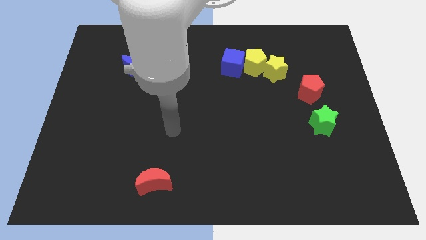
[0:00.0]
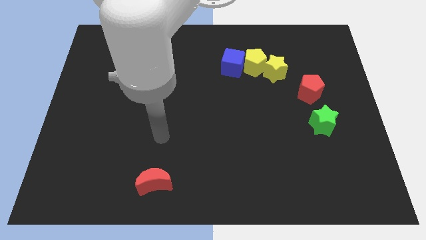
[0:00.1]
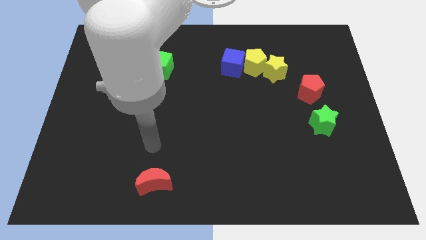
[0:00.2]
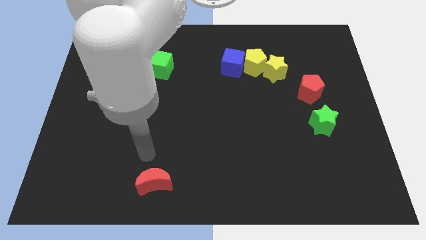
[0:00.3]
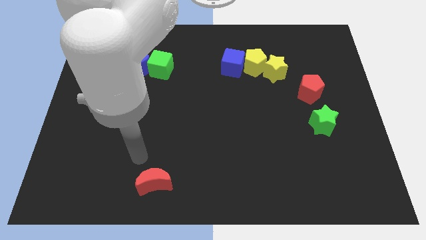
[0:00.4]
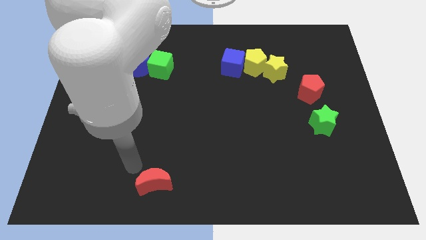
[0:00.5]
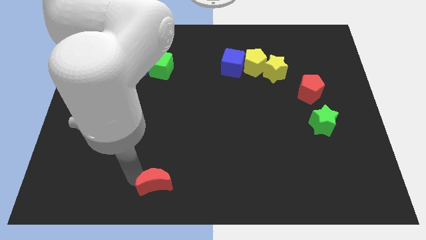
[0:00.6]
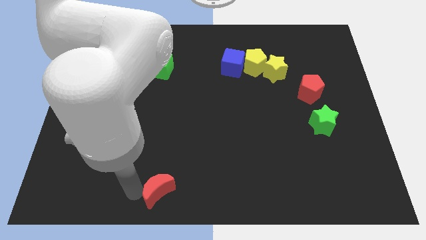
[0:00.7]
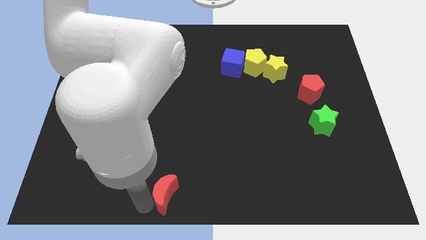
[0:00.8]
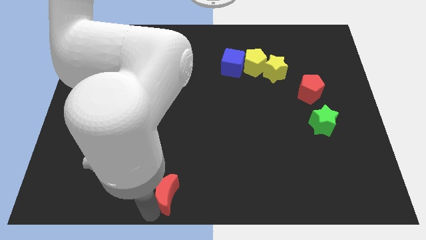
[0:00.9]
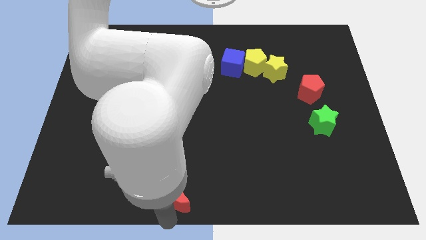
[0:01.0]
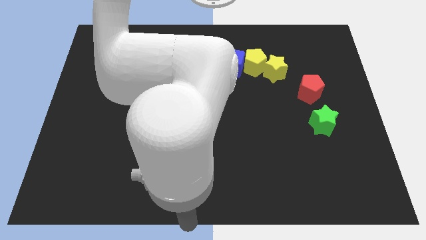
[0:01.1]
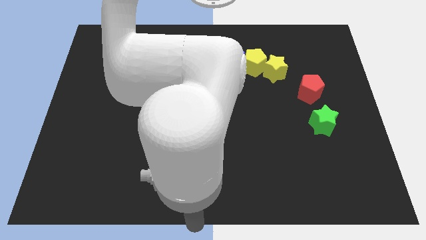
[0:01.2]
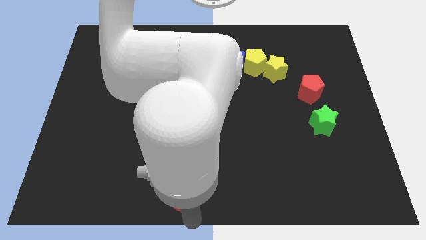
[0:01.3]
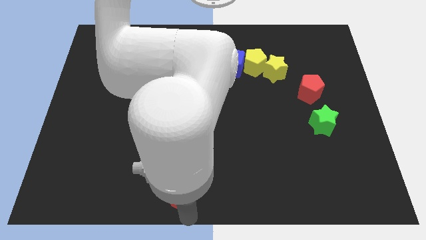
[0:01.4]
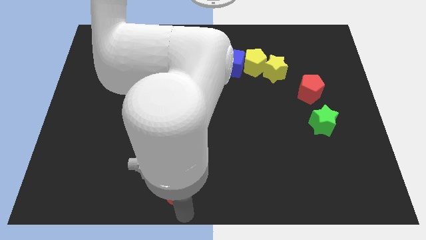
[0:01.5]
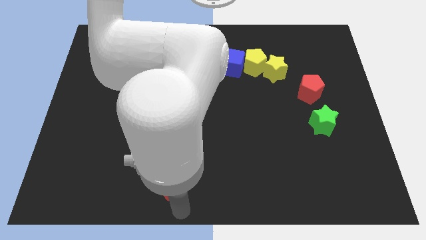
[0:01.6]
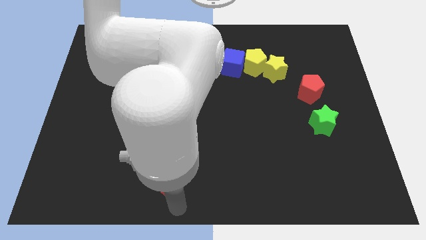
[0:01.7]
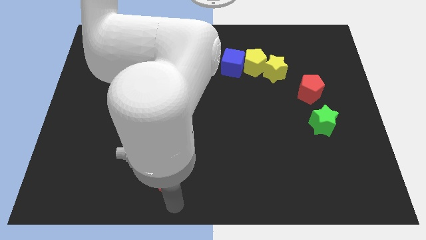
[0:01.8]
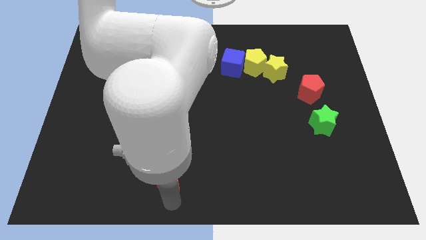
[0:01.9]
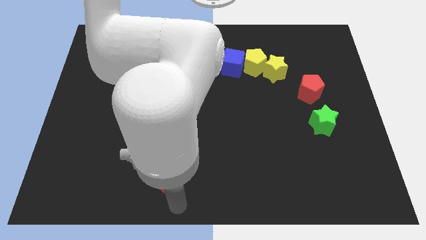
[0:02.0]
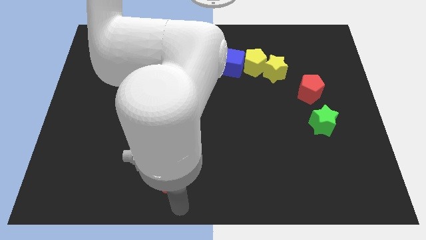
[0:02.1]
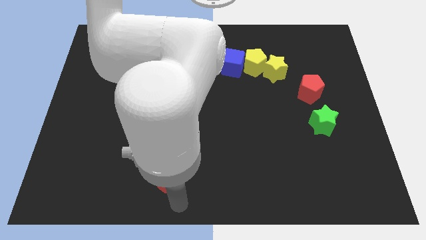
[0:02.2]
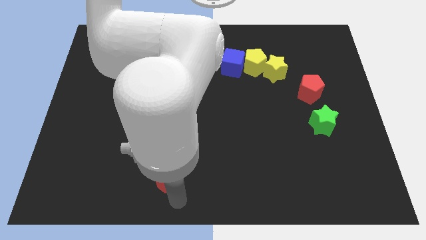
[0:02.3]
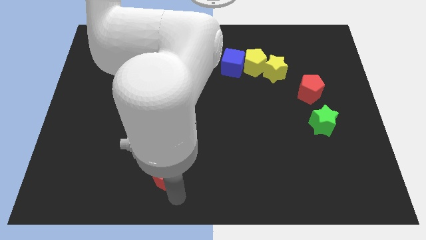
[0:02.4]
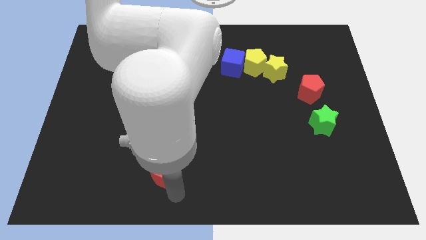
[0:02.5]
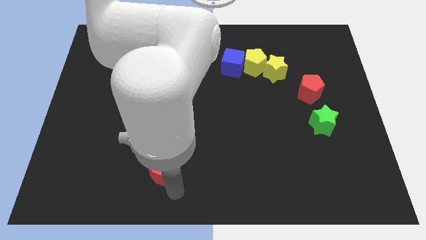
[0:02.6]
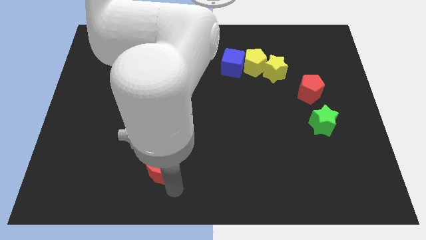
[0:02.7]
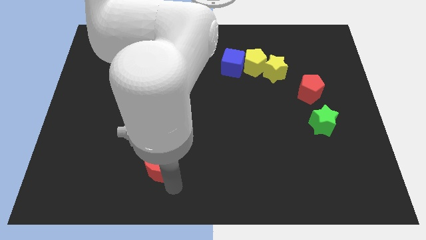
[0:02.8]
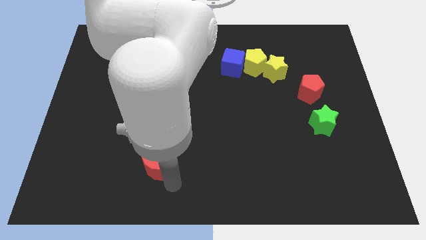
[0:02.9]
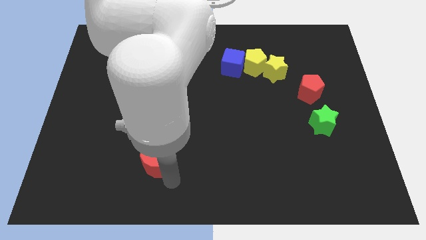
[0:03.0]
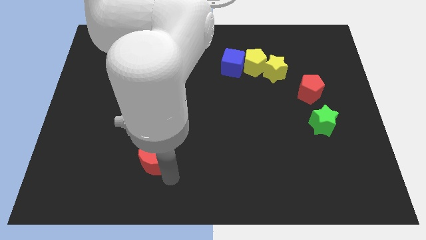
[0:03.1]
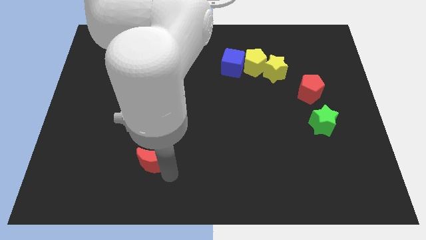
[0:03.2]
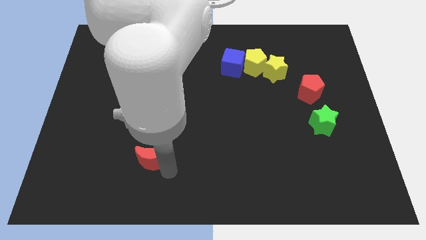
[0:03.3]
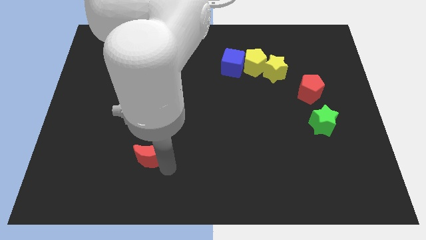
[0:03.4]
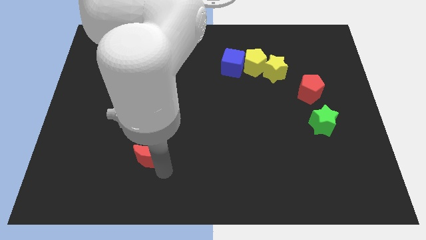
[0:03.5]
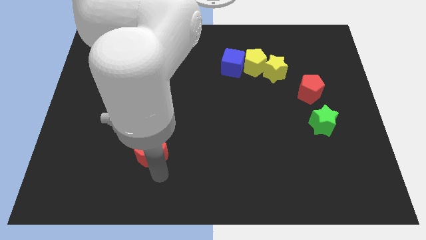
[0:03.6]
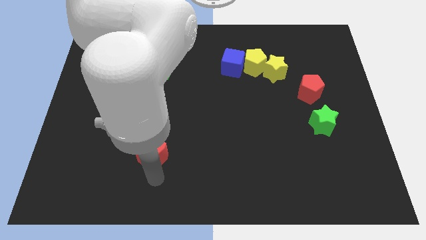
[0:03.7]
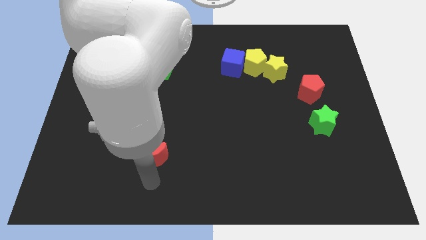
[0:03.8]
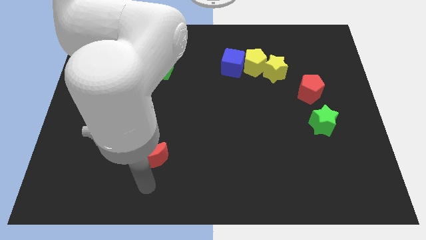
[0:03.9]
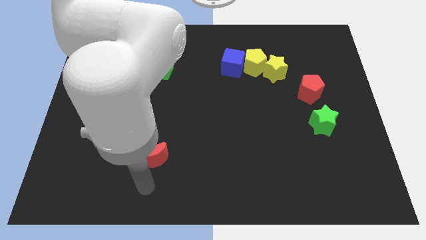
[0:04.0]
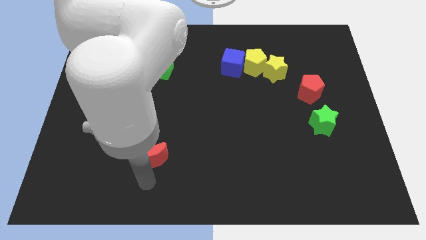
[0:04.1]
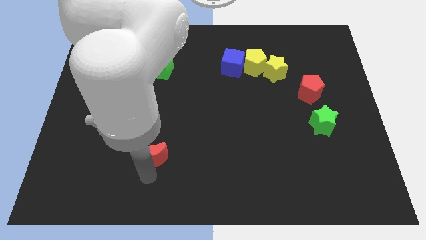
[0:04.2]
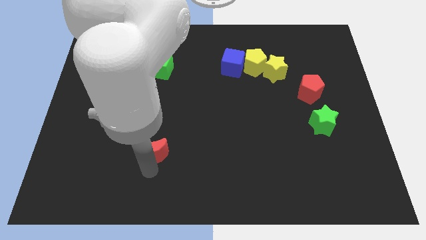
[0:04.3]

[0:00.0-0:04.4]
slightly slide the red moon up

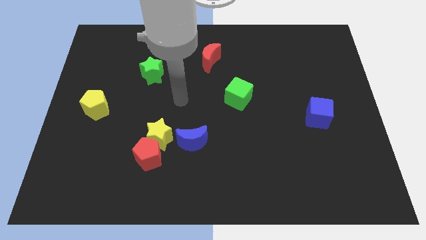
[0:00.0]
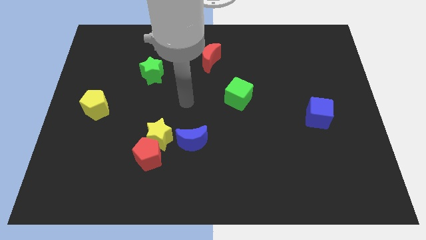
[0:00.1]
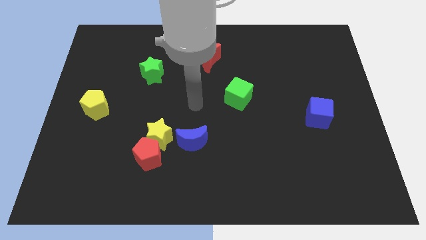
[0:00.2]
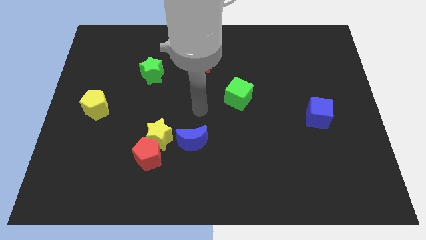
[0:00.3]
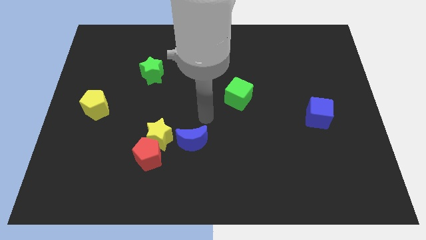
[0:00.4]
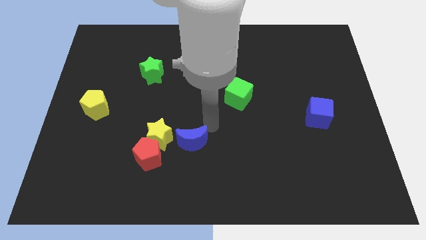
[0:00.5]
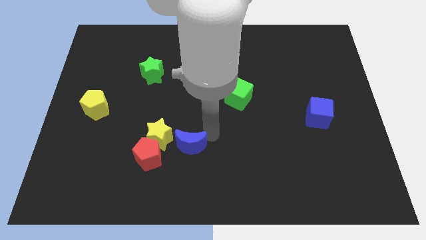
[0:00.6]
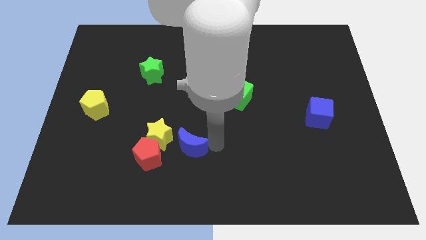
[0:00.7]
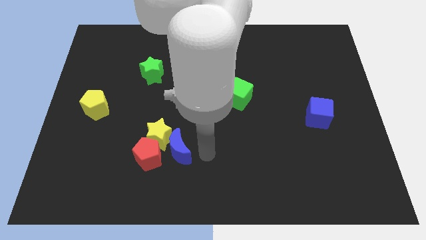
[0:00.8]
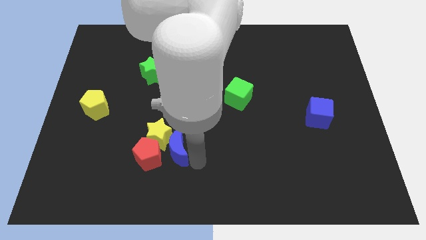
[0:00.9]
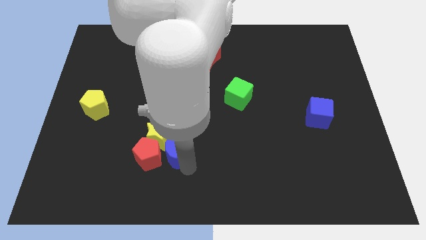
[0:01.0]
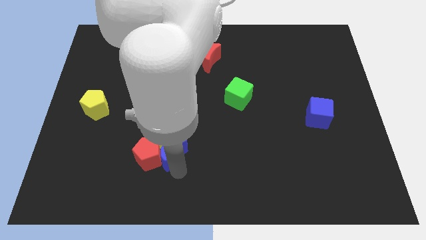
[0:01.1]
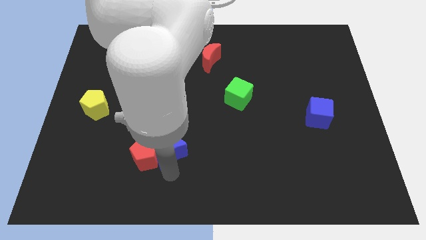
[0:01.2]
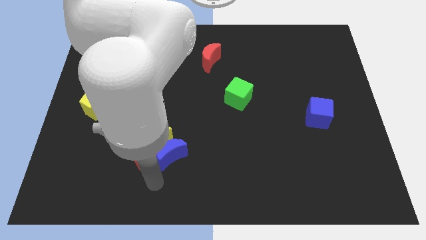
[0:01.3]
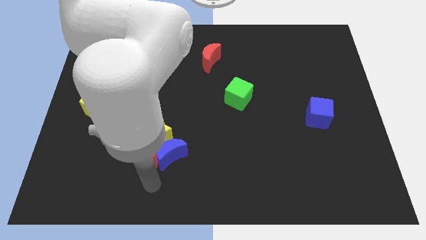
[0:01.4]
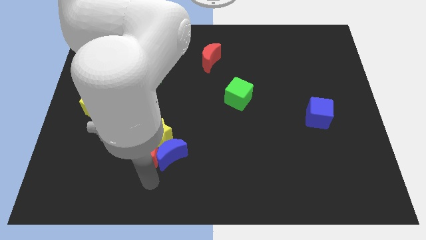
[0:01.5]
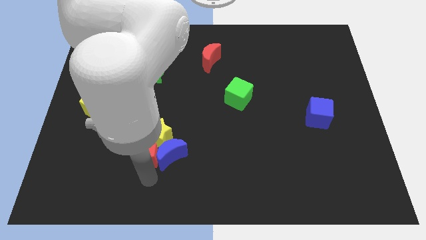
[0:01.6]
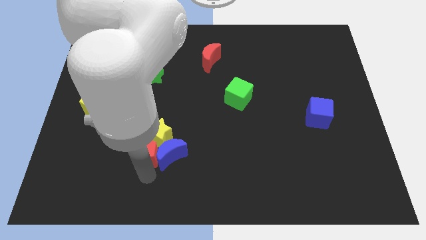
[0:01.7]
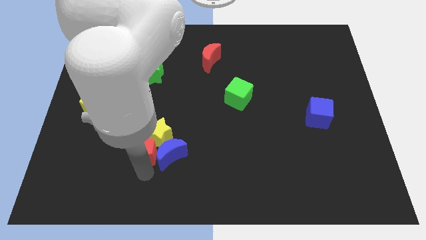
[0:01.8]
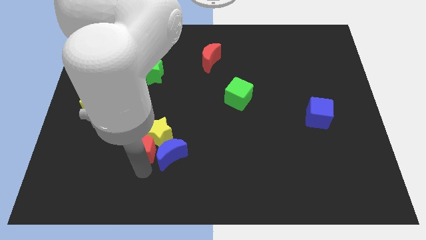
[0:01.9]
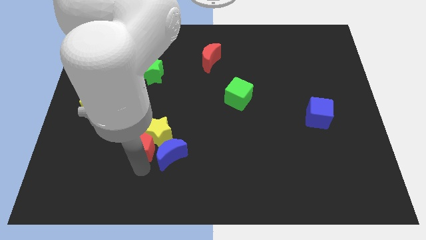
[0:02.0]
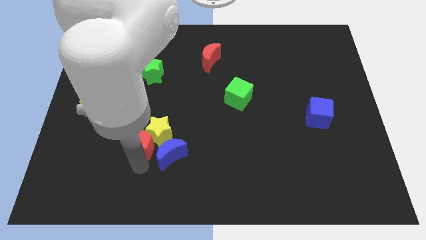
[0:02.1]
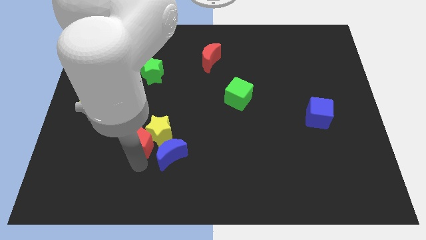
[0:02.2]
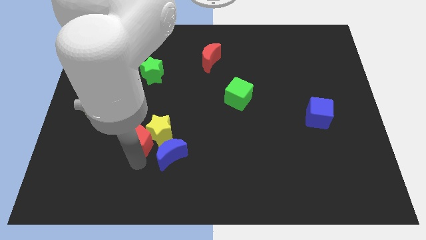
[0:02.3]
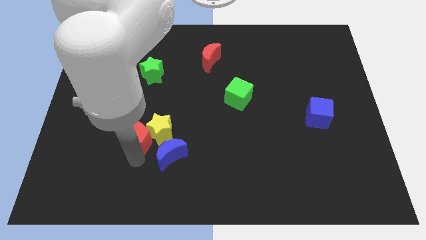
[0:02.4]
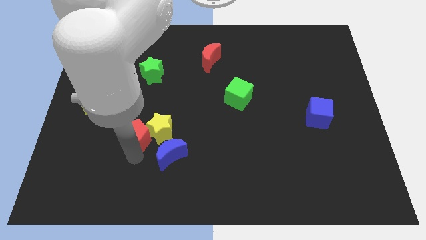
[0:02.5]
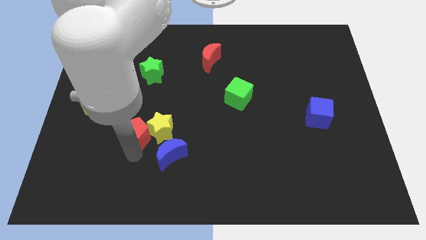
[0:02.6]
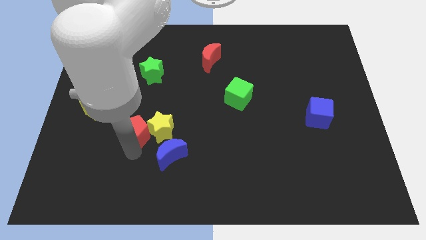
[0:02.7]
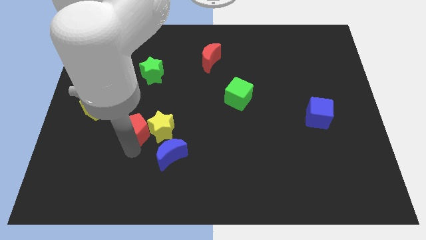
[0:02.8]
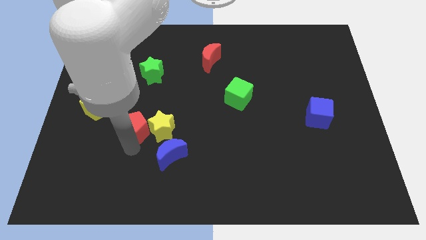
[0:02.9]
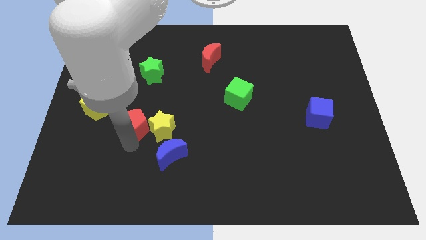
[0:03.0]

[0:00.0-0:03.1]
move the red pentagon somewhat up

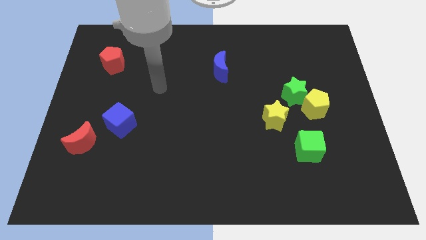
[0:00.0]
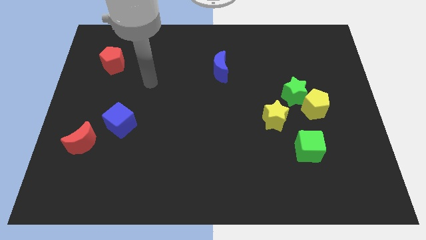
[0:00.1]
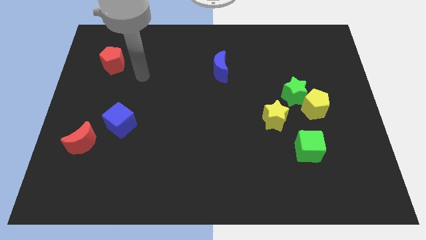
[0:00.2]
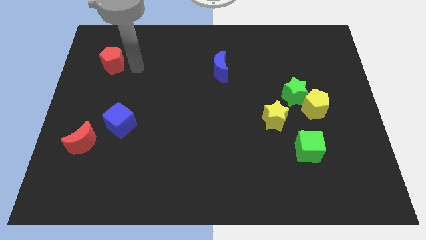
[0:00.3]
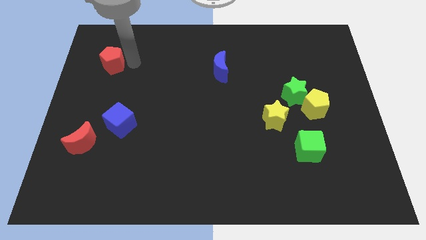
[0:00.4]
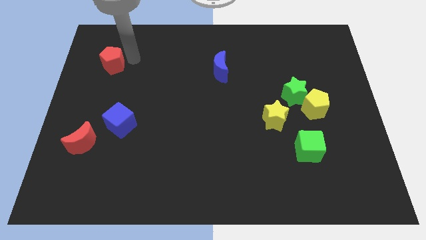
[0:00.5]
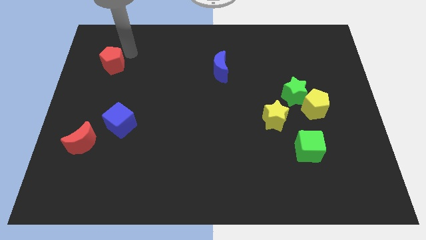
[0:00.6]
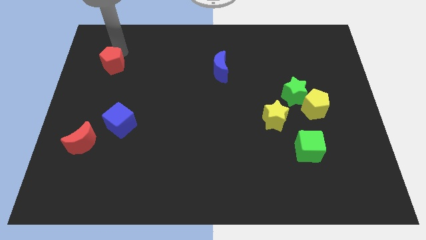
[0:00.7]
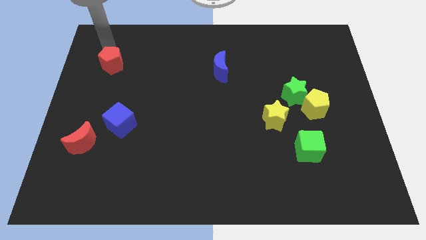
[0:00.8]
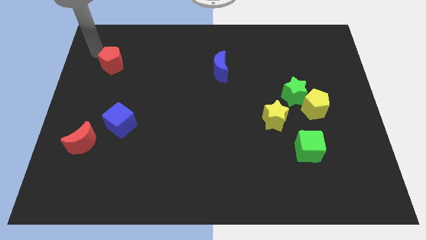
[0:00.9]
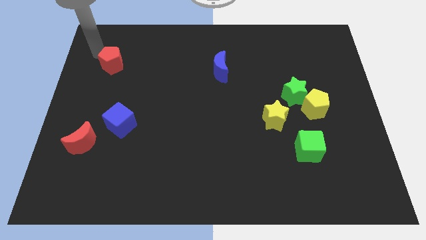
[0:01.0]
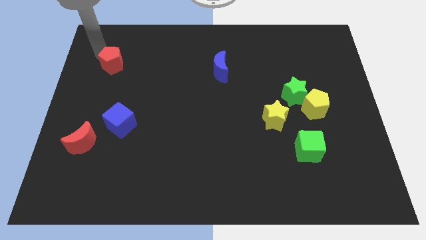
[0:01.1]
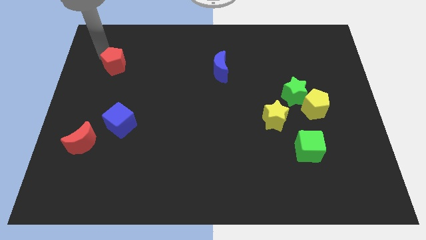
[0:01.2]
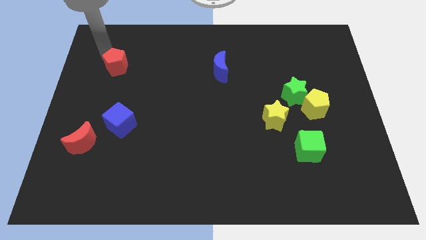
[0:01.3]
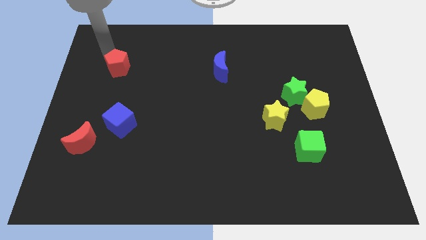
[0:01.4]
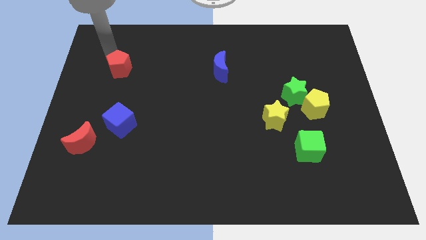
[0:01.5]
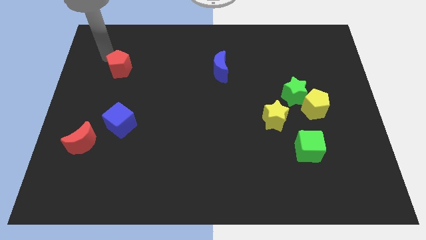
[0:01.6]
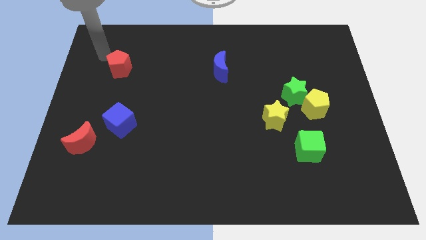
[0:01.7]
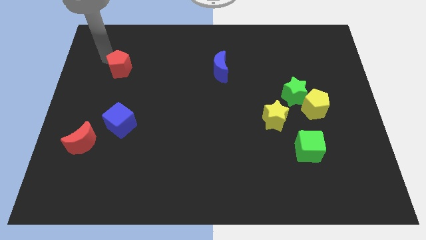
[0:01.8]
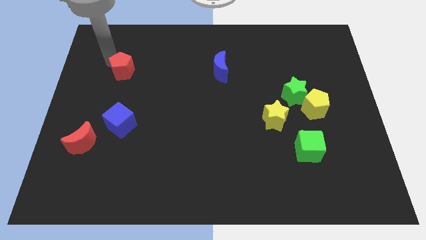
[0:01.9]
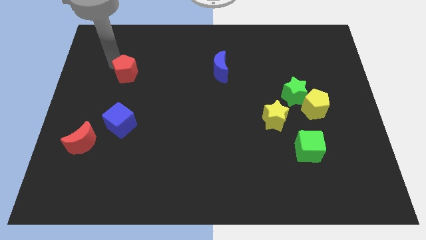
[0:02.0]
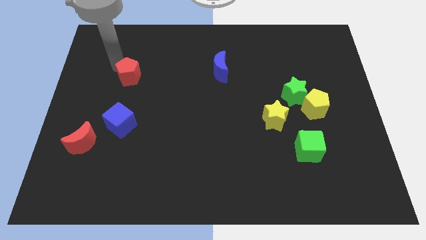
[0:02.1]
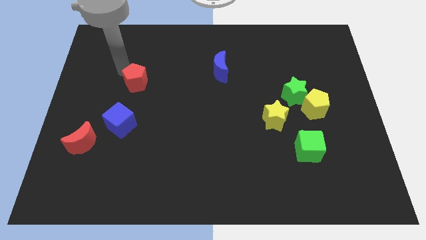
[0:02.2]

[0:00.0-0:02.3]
slide the red pentagon diagonally downwards and to the right slightly
